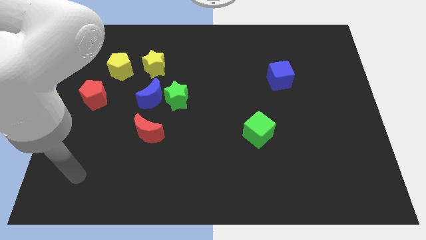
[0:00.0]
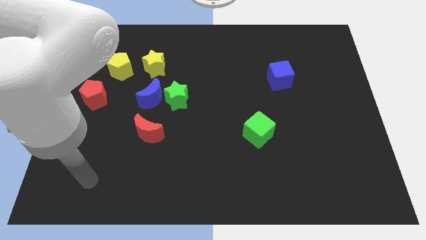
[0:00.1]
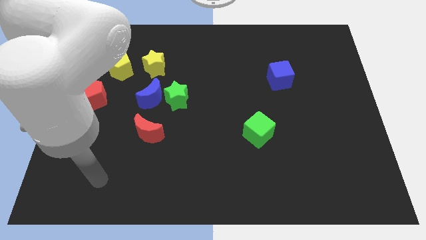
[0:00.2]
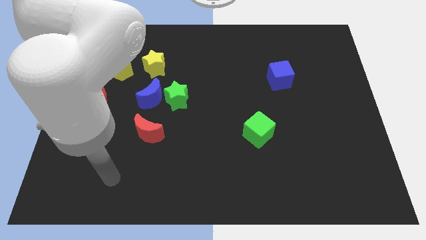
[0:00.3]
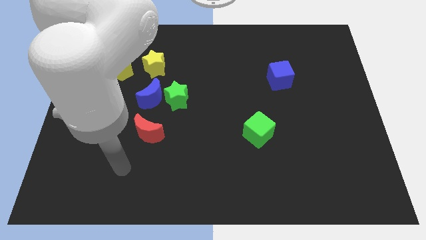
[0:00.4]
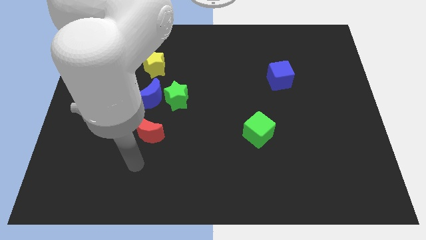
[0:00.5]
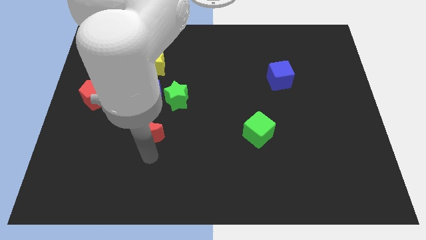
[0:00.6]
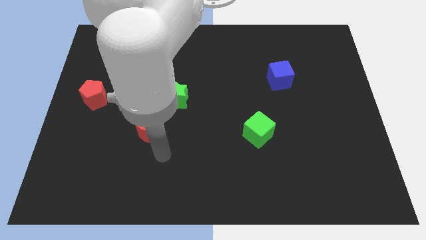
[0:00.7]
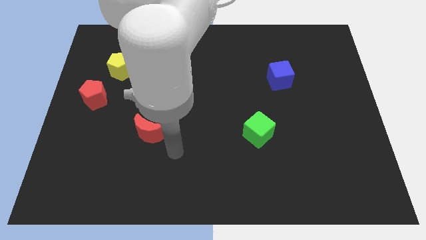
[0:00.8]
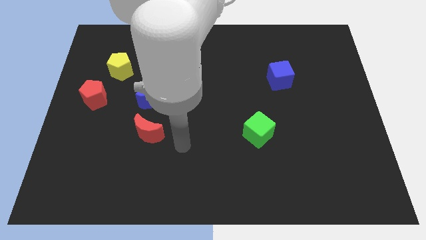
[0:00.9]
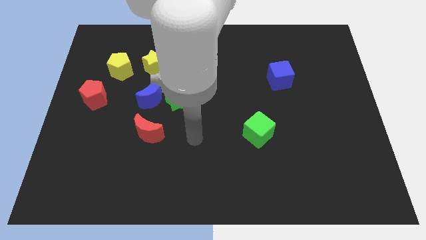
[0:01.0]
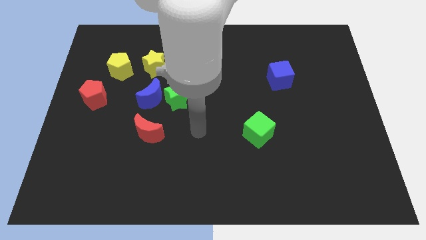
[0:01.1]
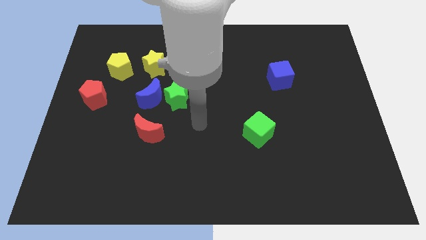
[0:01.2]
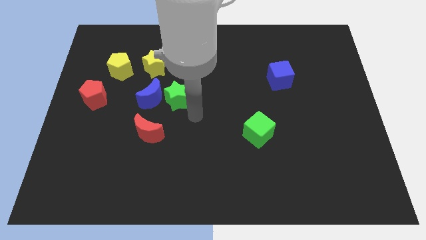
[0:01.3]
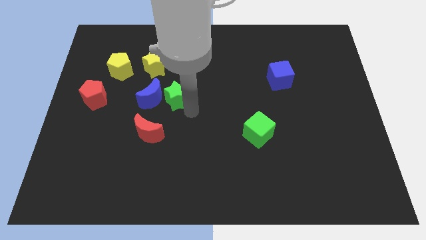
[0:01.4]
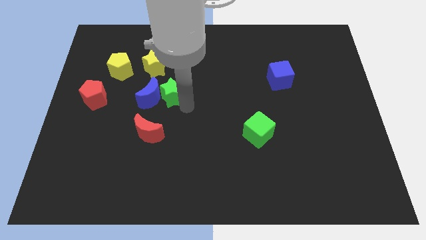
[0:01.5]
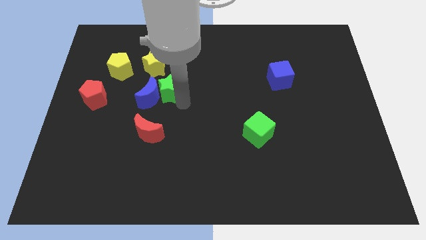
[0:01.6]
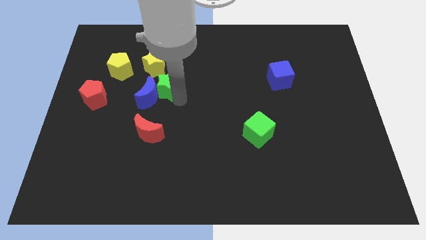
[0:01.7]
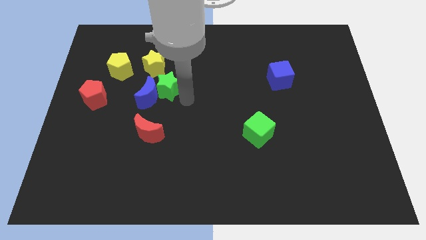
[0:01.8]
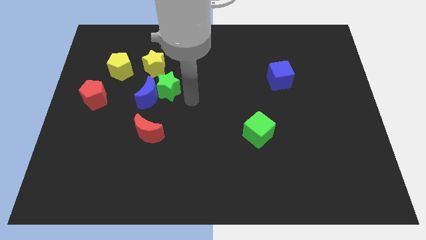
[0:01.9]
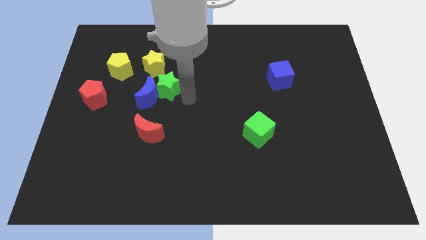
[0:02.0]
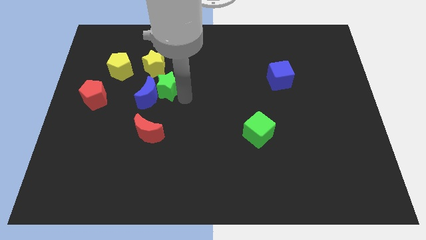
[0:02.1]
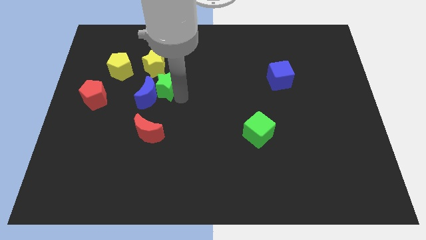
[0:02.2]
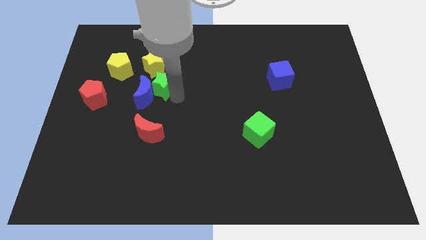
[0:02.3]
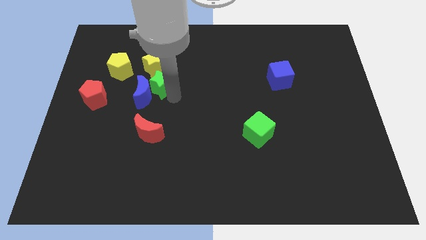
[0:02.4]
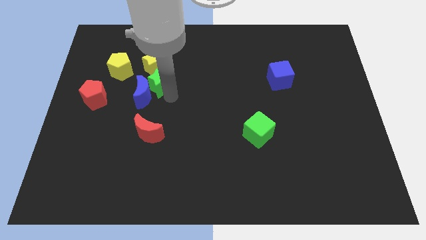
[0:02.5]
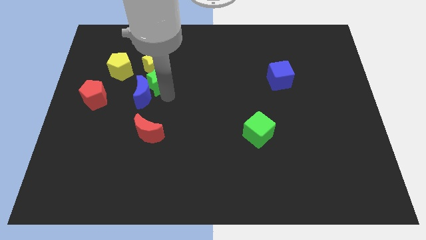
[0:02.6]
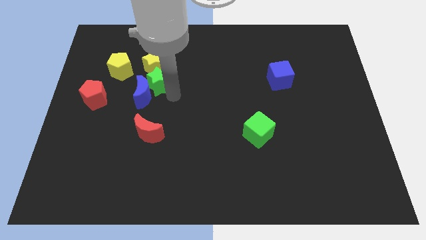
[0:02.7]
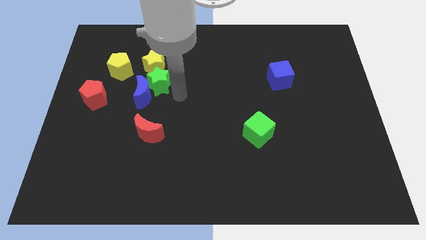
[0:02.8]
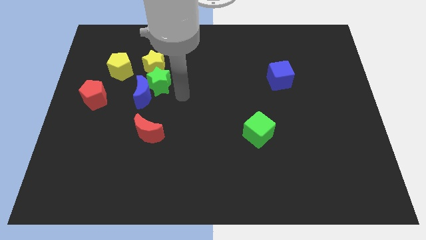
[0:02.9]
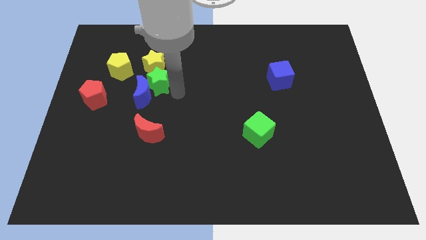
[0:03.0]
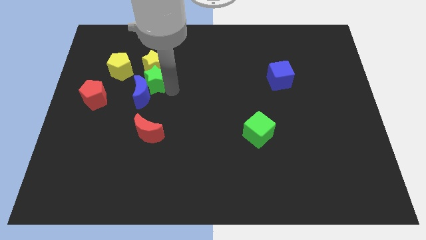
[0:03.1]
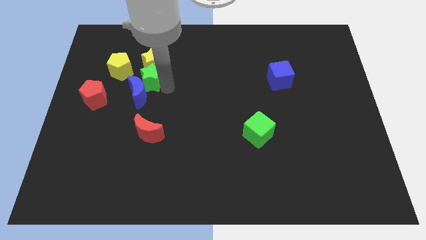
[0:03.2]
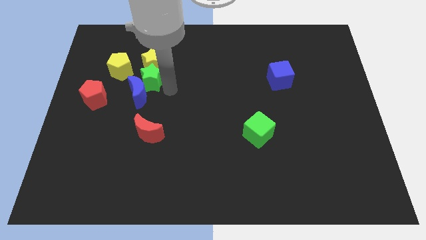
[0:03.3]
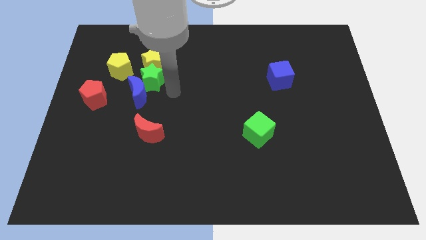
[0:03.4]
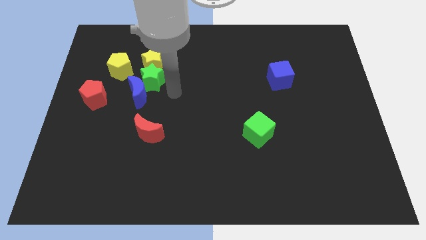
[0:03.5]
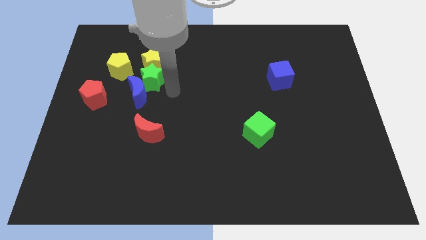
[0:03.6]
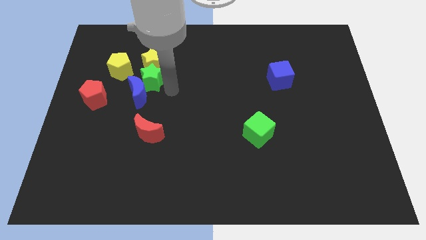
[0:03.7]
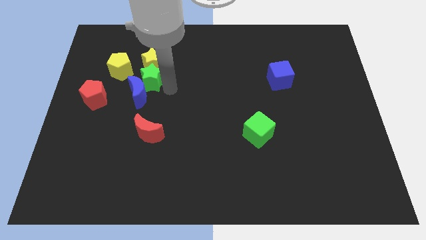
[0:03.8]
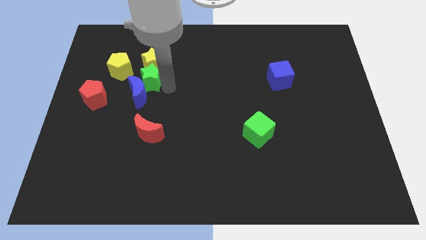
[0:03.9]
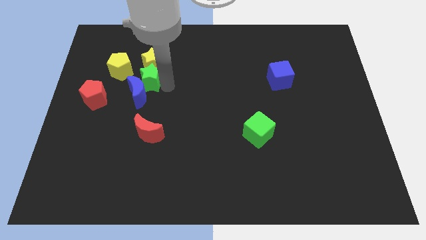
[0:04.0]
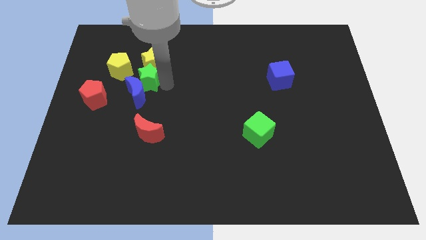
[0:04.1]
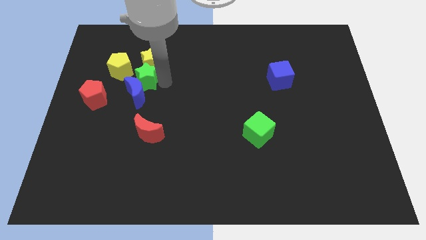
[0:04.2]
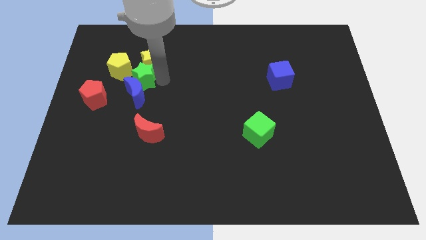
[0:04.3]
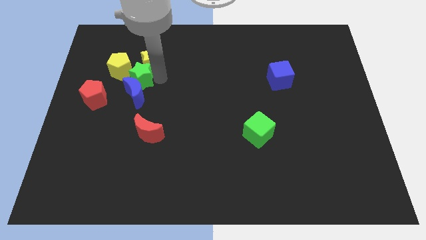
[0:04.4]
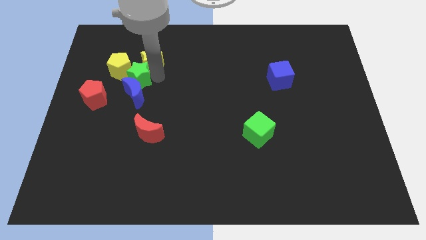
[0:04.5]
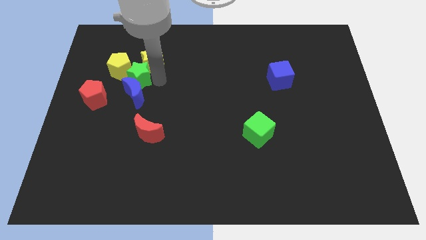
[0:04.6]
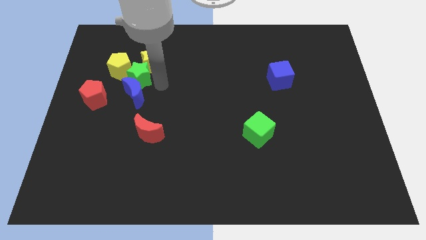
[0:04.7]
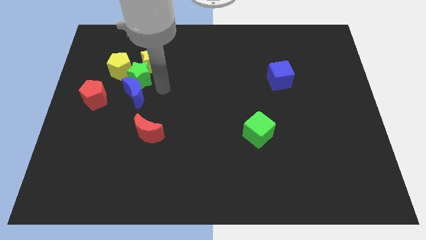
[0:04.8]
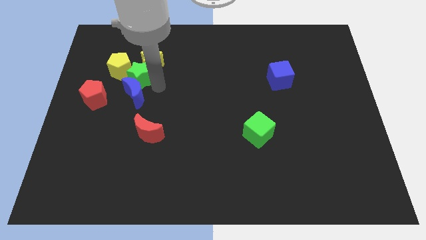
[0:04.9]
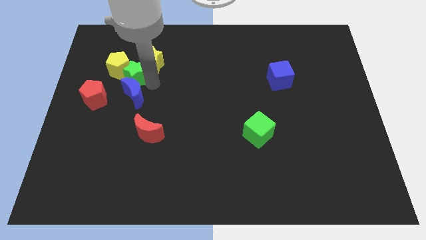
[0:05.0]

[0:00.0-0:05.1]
move the green star next to the yellow pentagon

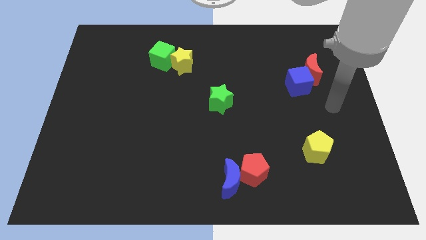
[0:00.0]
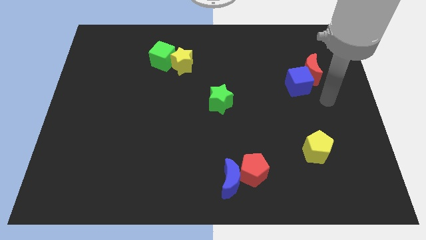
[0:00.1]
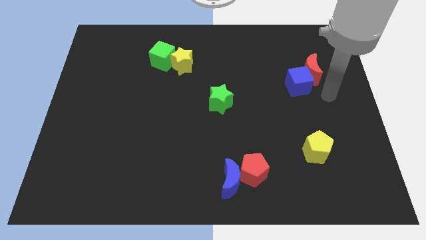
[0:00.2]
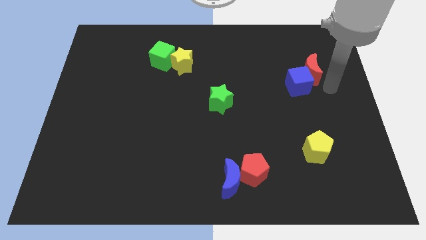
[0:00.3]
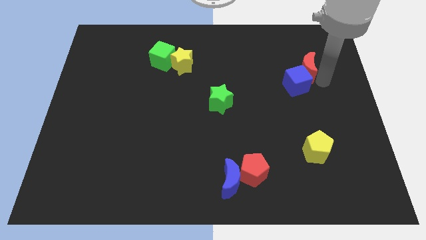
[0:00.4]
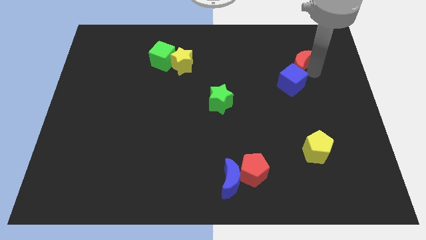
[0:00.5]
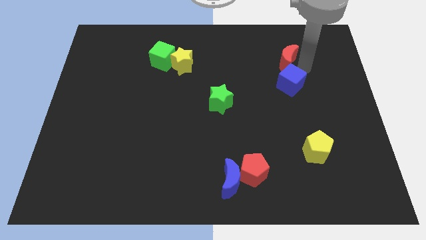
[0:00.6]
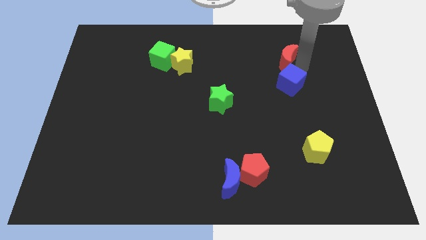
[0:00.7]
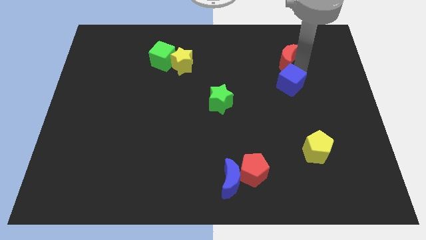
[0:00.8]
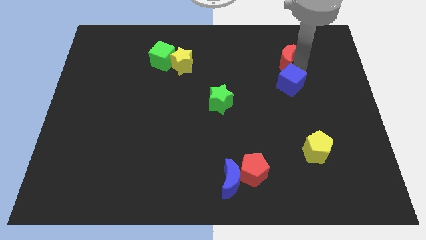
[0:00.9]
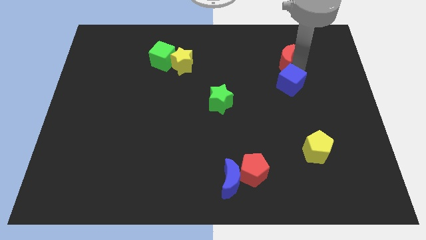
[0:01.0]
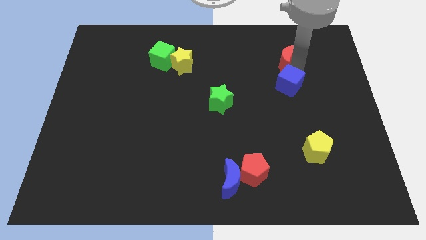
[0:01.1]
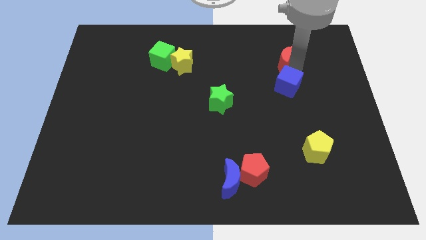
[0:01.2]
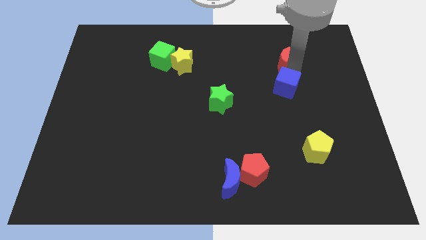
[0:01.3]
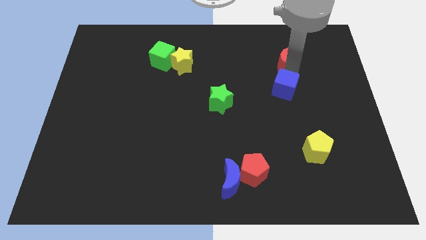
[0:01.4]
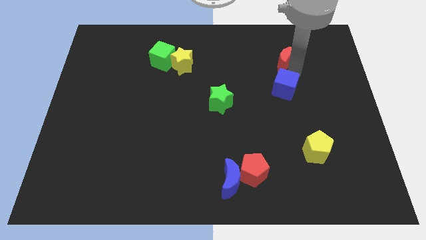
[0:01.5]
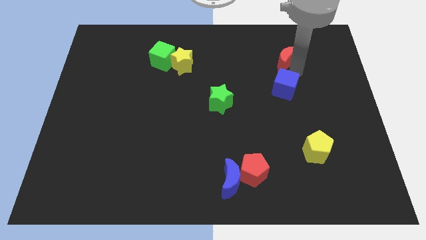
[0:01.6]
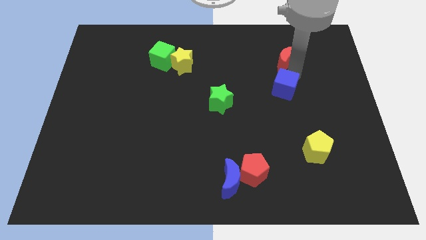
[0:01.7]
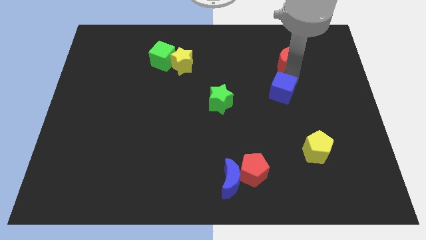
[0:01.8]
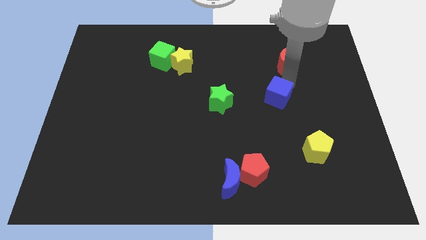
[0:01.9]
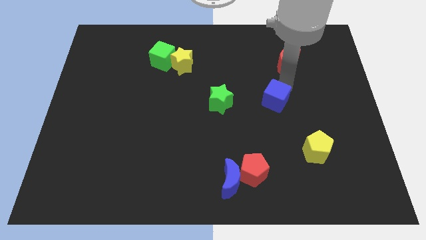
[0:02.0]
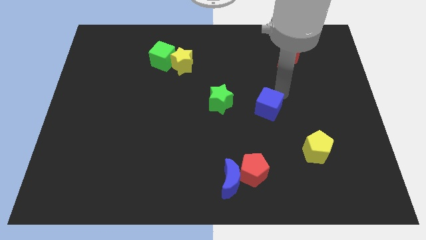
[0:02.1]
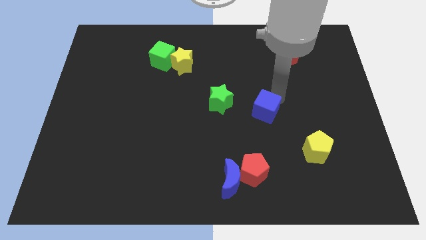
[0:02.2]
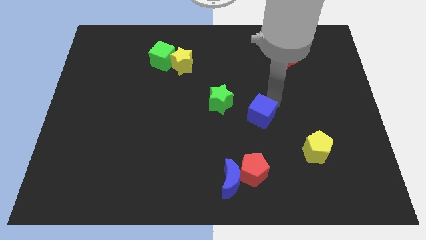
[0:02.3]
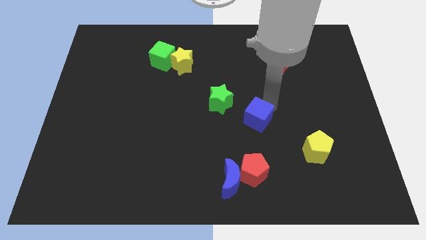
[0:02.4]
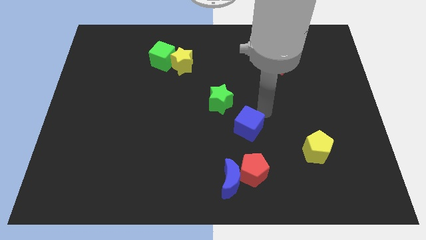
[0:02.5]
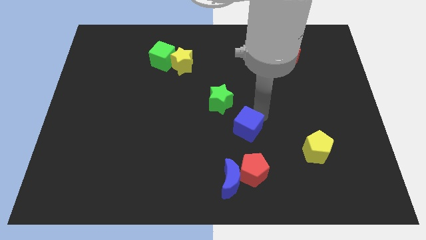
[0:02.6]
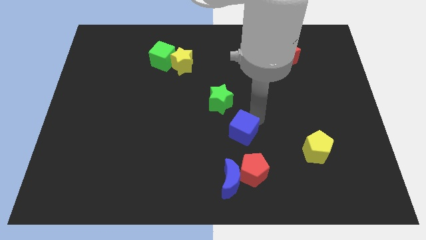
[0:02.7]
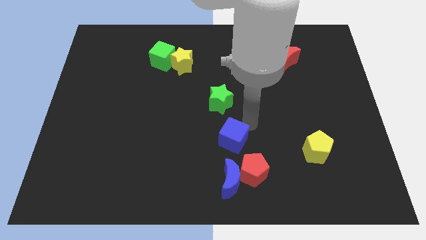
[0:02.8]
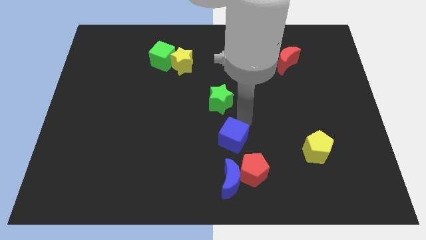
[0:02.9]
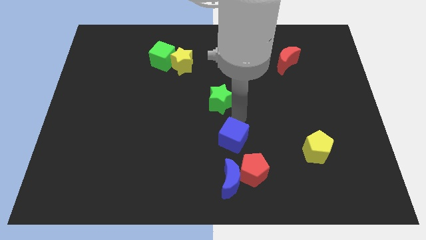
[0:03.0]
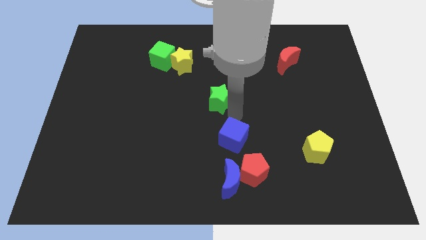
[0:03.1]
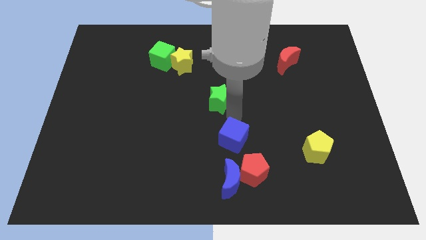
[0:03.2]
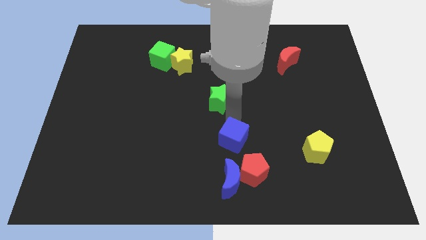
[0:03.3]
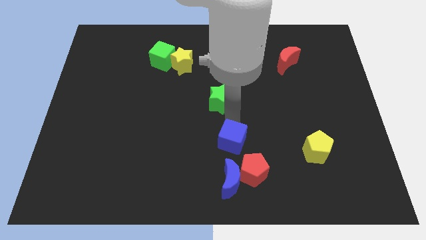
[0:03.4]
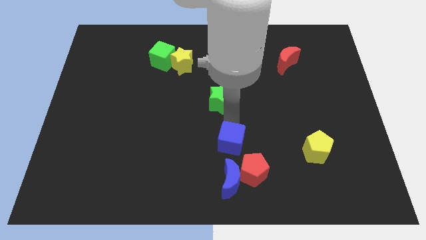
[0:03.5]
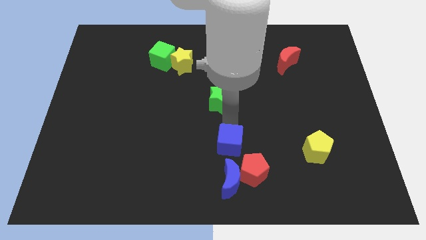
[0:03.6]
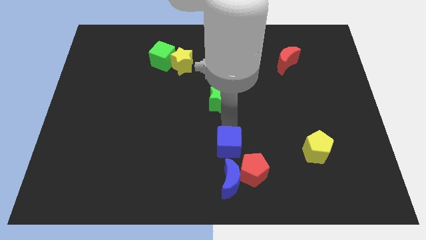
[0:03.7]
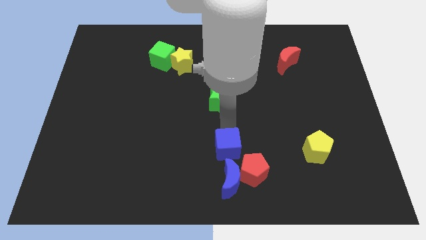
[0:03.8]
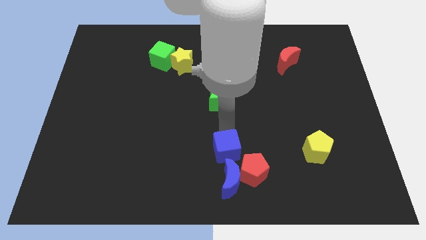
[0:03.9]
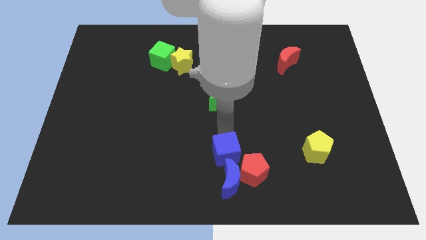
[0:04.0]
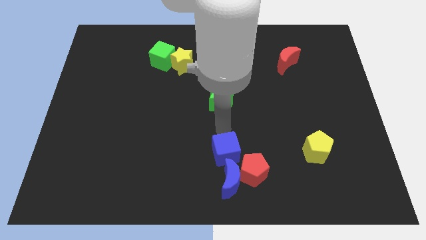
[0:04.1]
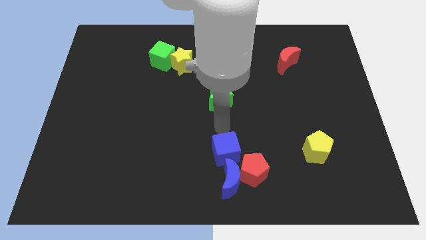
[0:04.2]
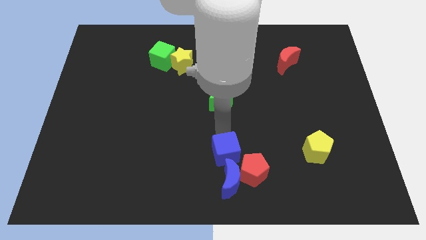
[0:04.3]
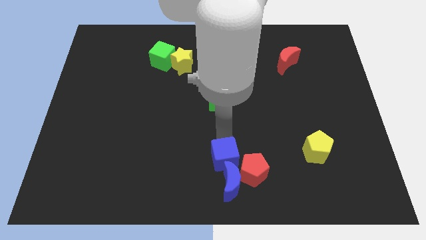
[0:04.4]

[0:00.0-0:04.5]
move the blue cube close to the blue moon
